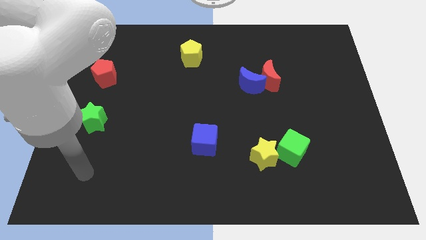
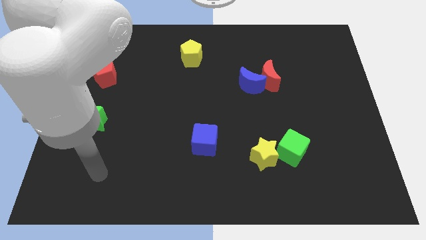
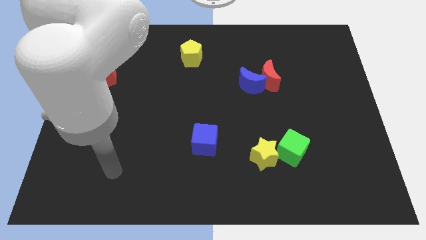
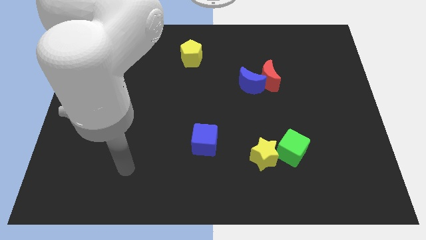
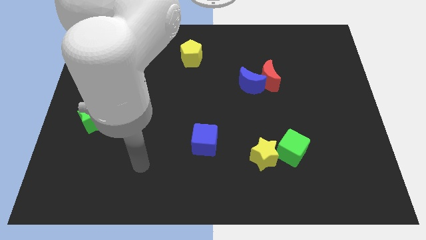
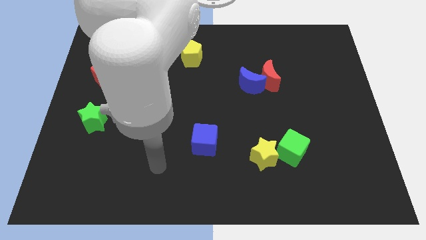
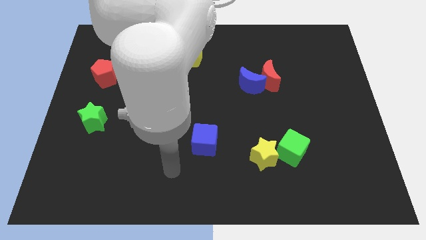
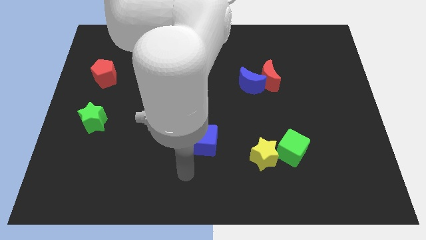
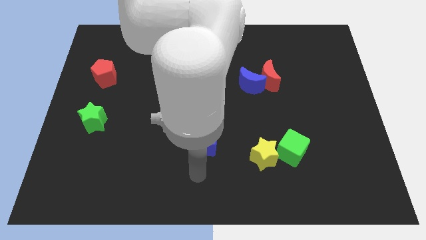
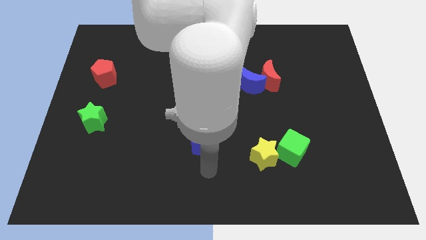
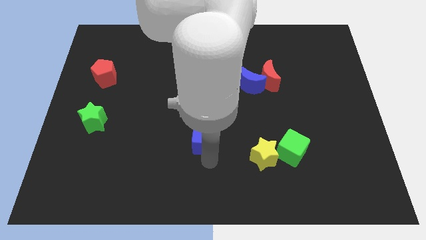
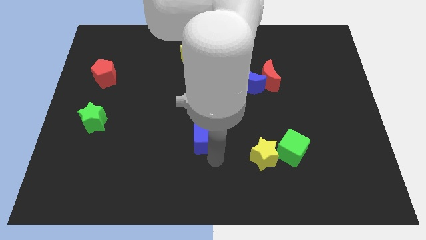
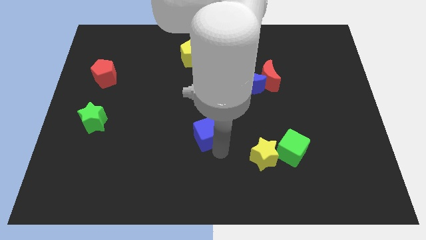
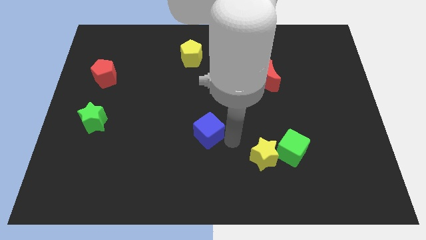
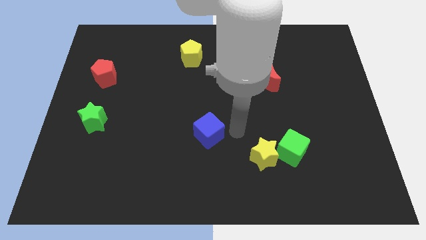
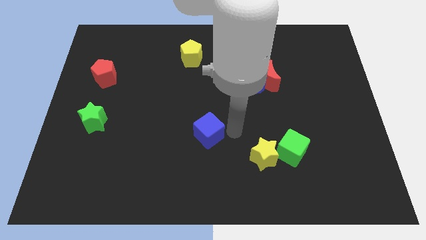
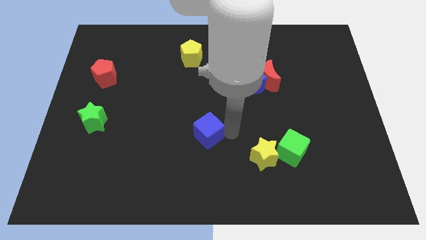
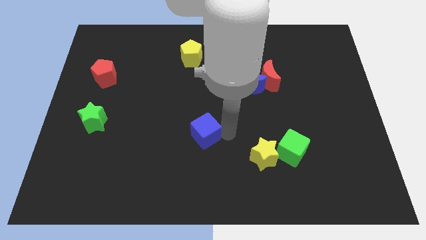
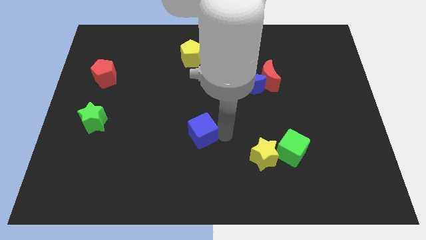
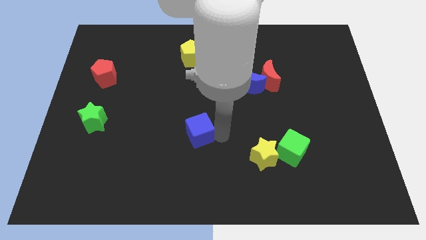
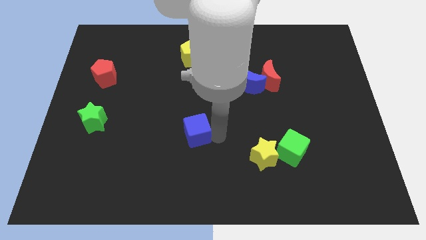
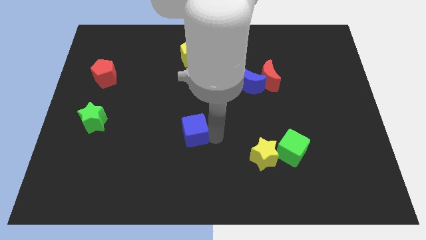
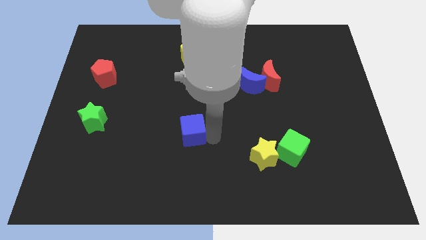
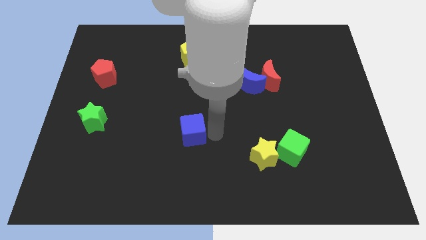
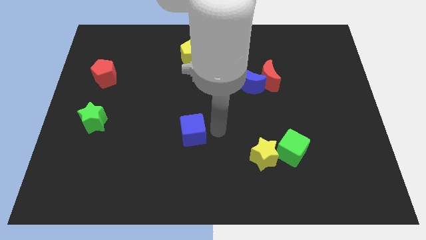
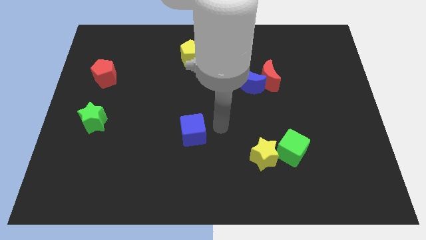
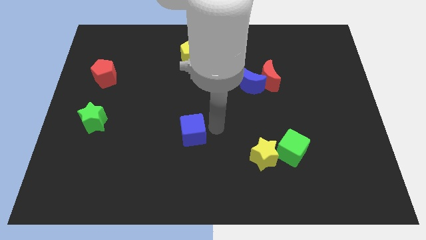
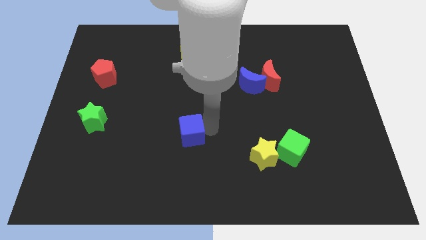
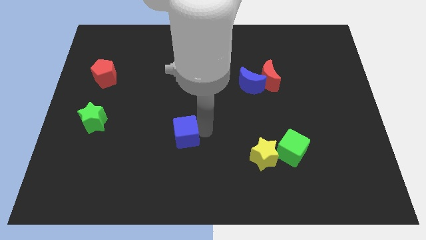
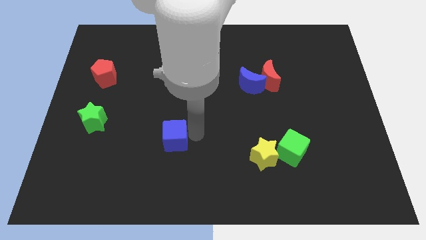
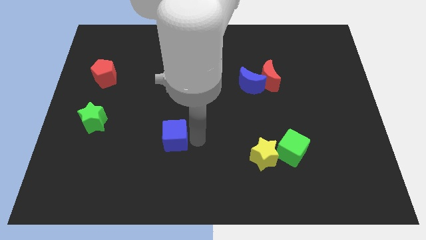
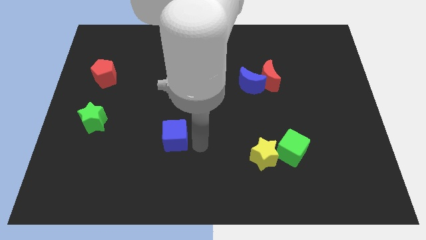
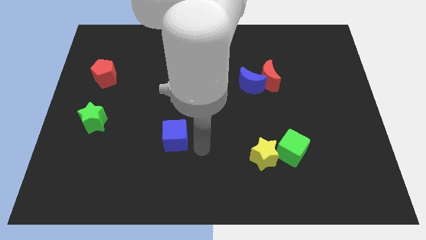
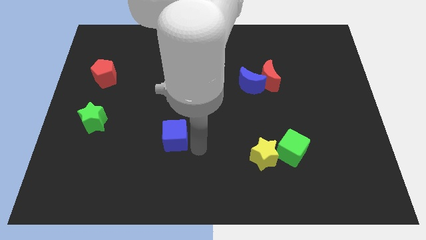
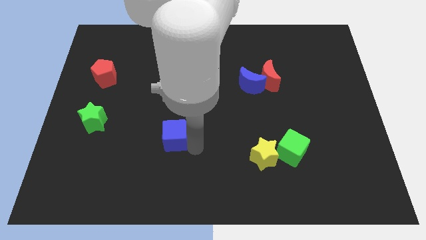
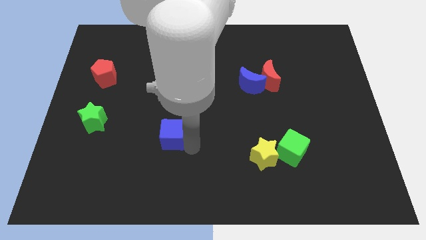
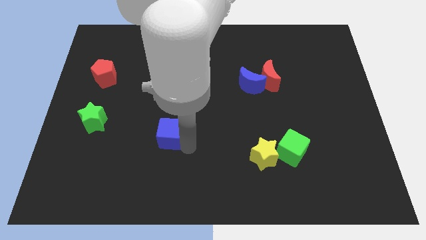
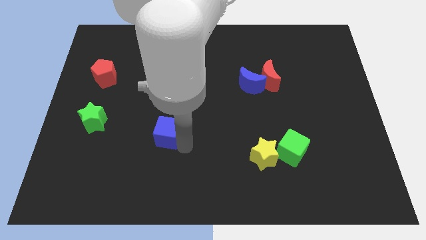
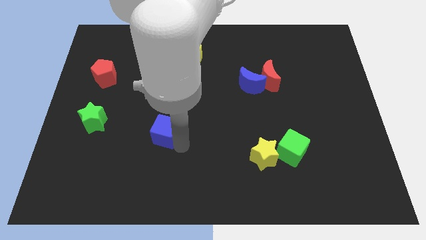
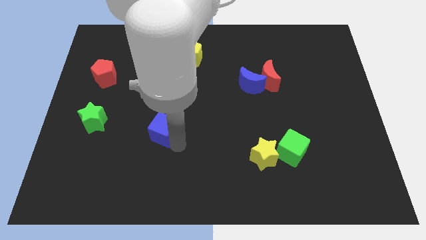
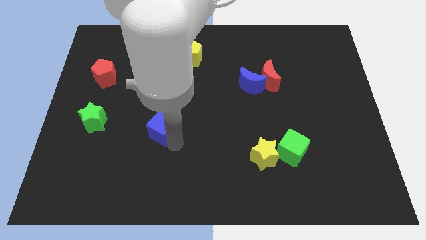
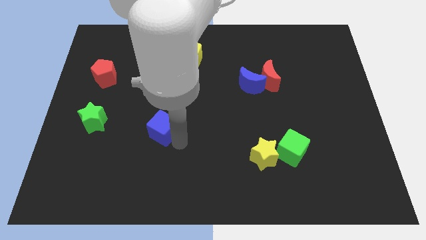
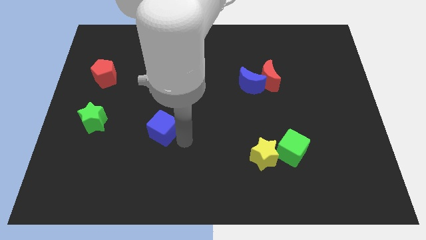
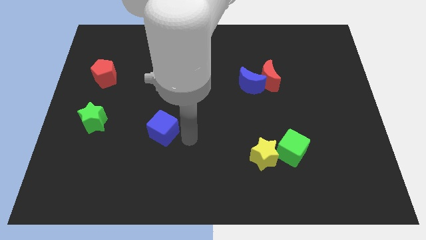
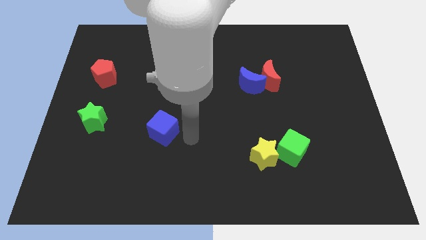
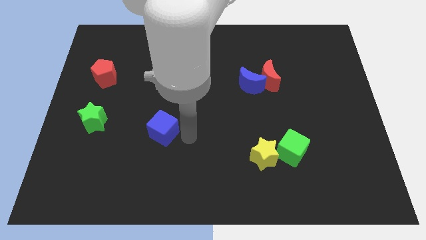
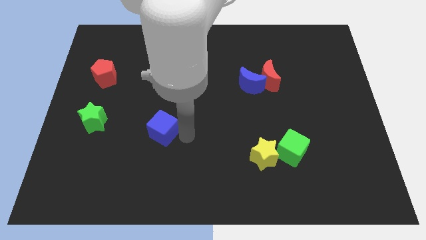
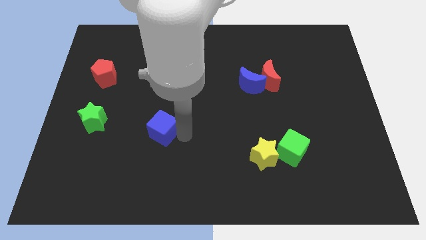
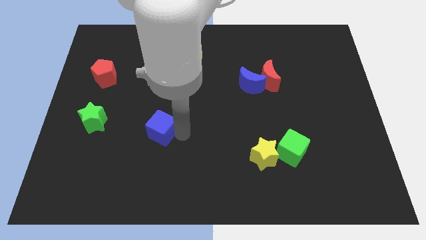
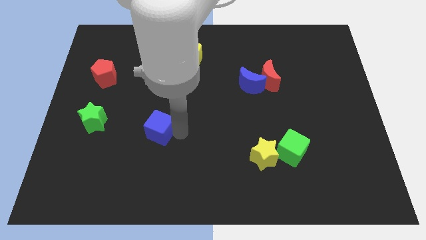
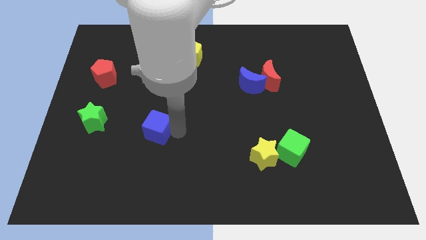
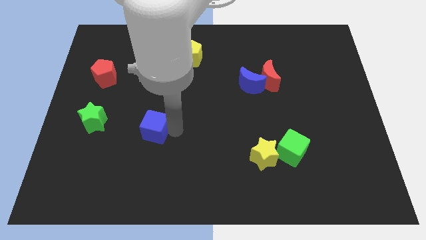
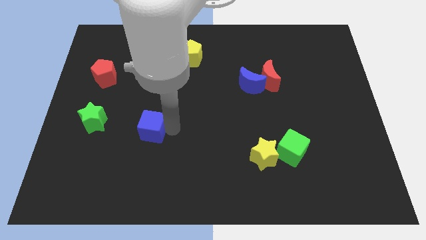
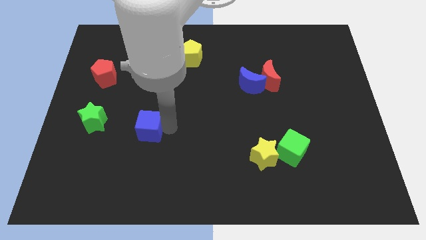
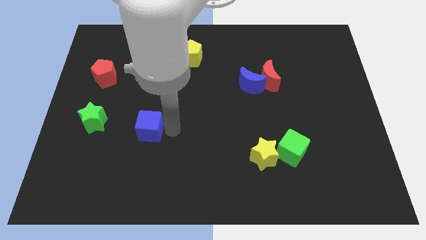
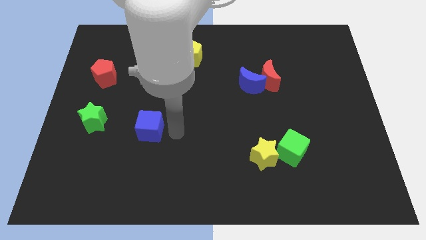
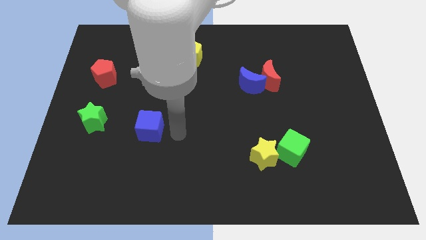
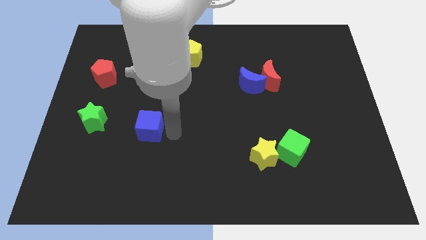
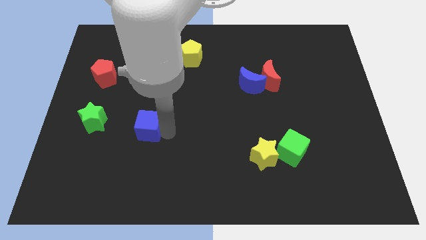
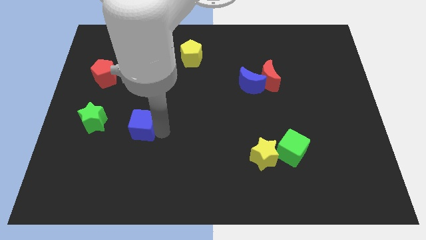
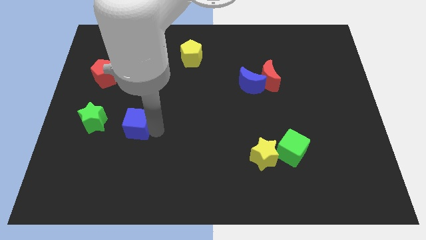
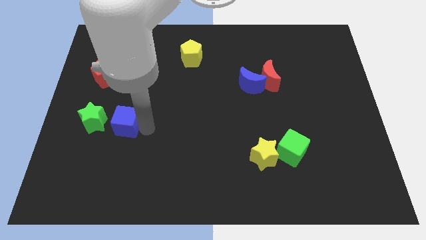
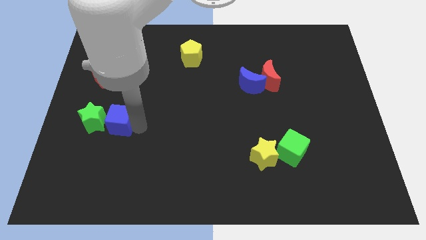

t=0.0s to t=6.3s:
push the blue cube next to the green star

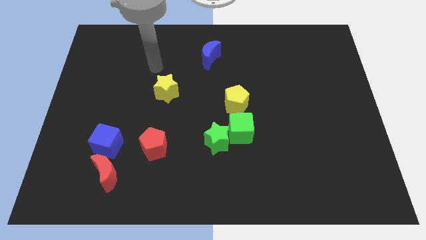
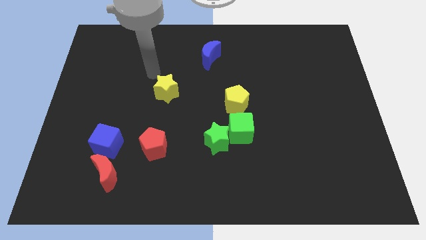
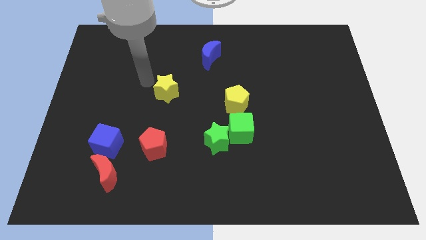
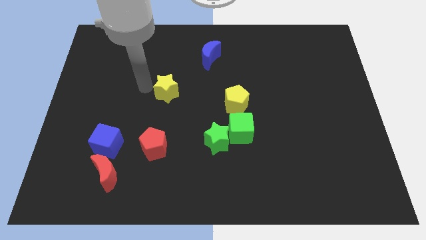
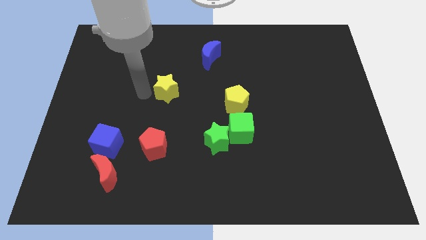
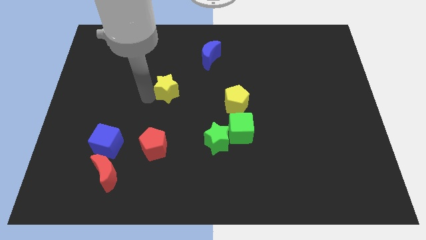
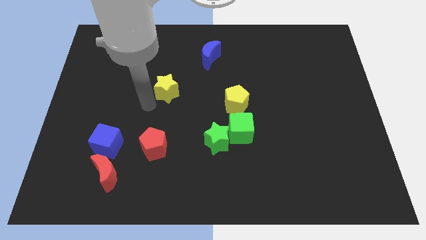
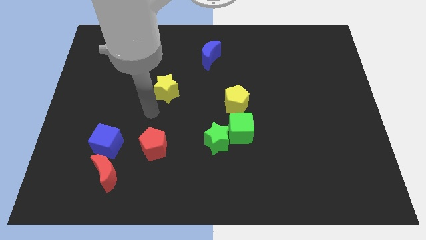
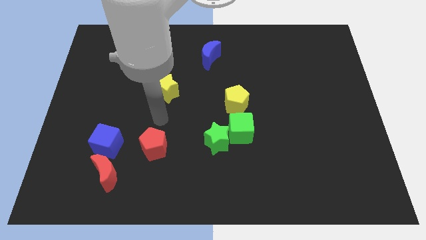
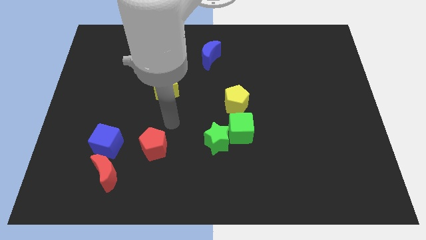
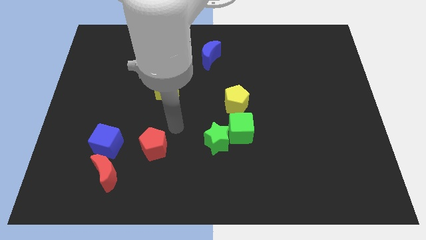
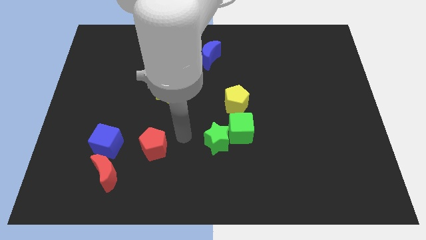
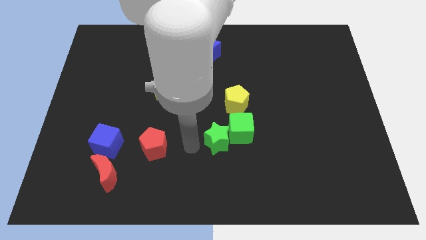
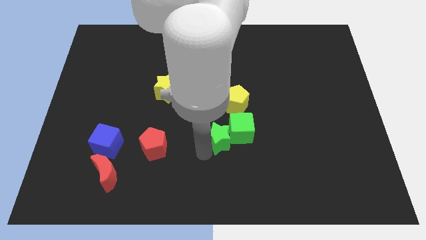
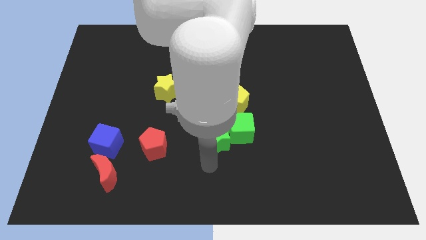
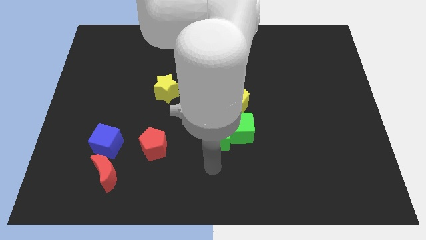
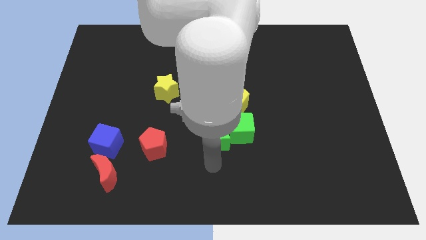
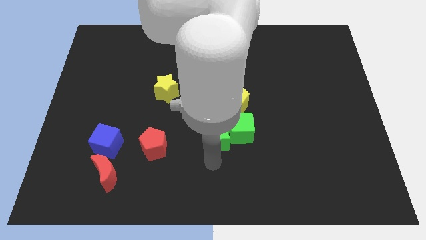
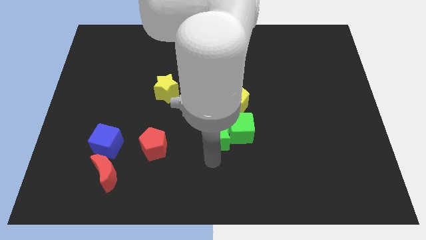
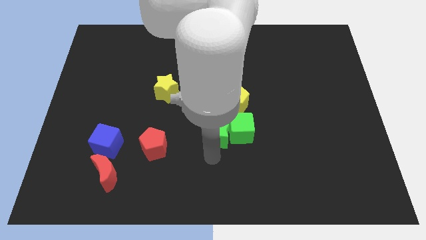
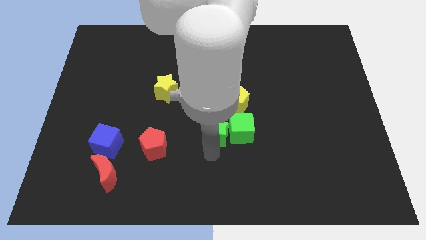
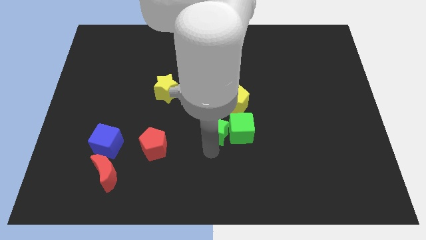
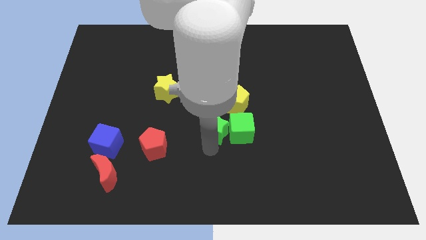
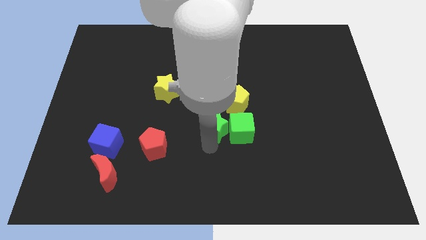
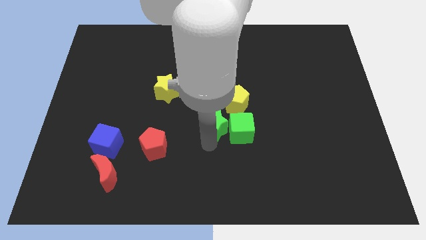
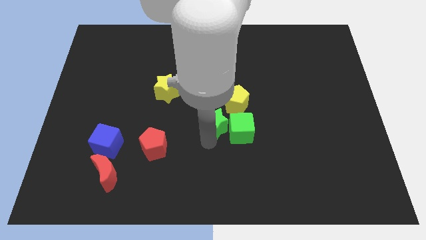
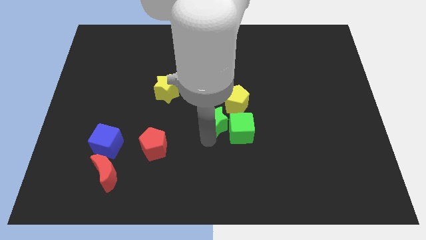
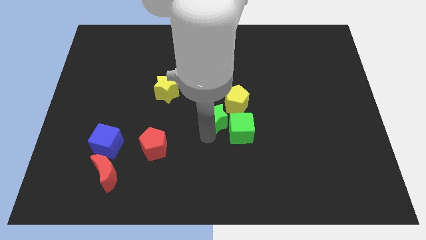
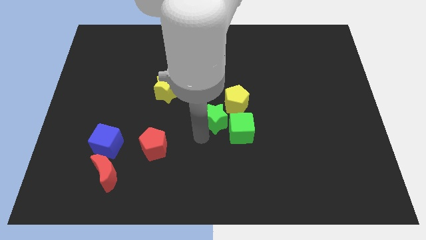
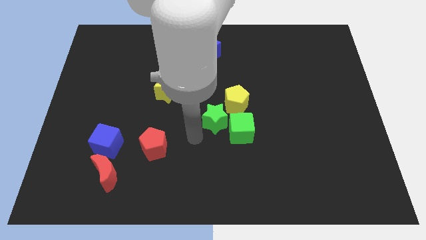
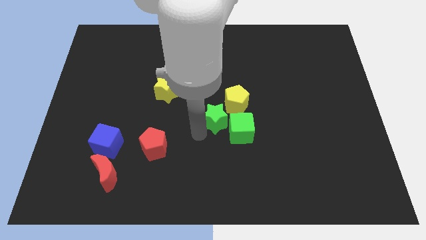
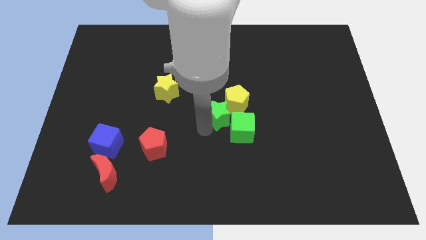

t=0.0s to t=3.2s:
put the green star next to the yellow pentagon
